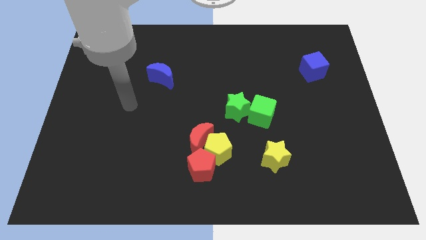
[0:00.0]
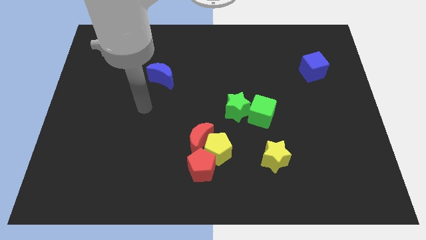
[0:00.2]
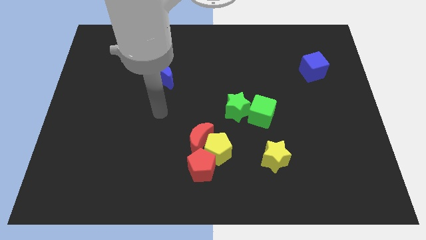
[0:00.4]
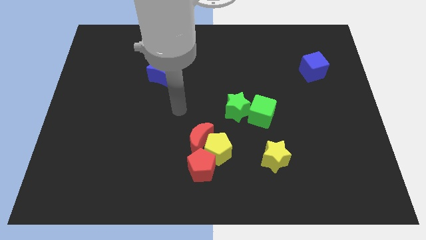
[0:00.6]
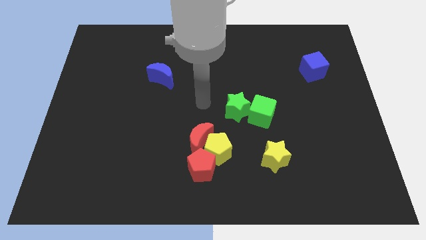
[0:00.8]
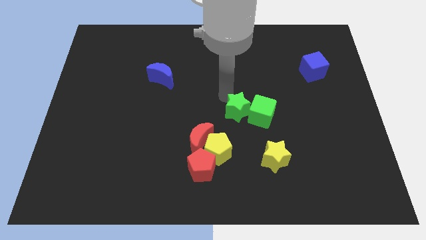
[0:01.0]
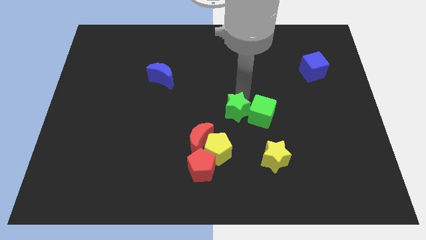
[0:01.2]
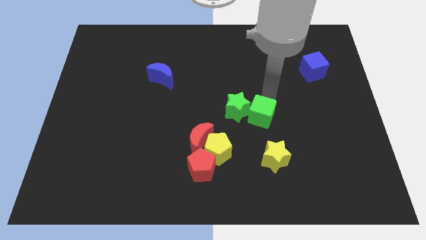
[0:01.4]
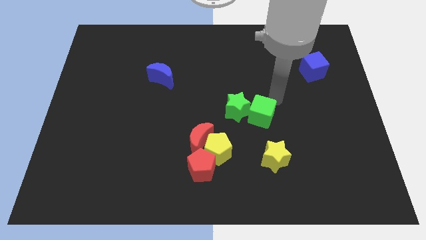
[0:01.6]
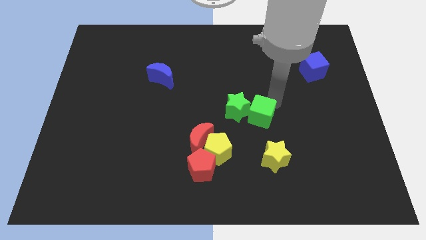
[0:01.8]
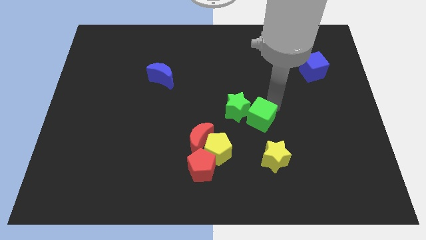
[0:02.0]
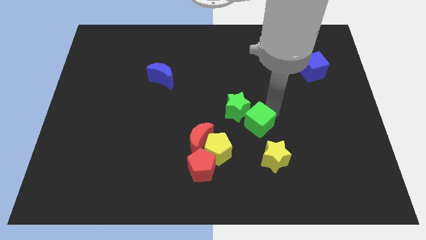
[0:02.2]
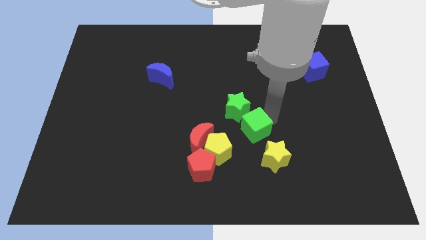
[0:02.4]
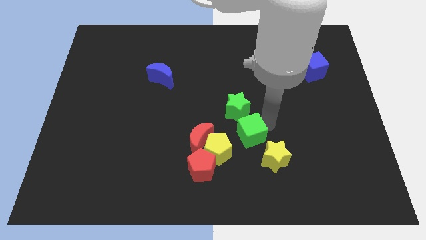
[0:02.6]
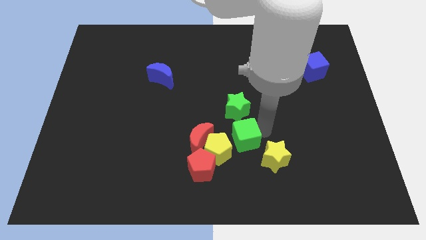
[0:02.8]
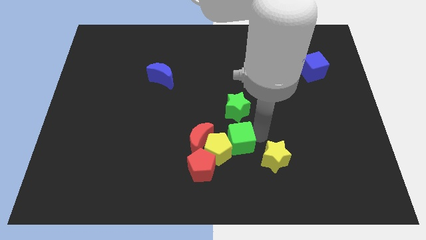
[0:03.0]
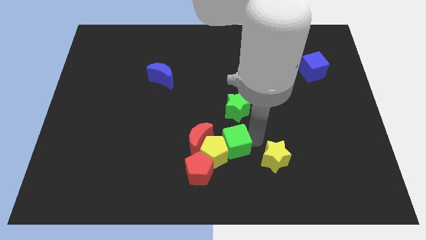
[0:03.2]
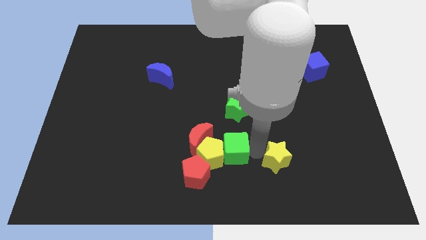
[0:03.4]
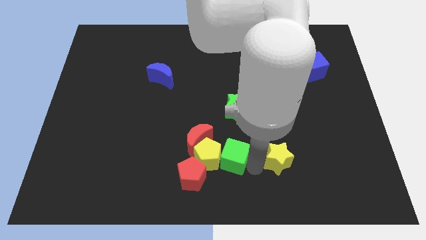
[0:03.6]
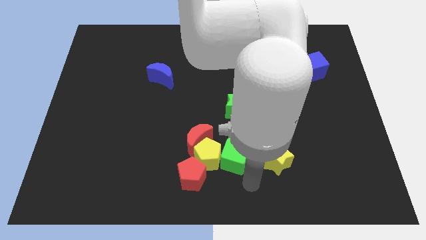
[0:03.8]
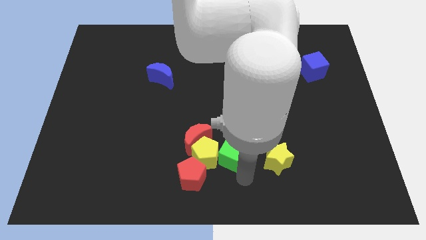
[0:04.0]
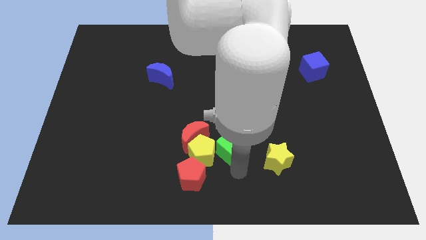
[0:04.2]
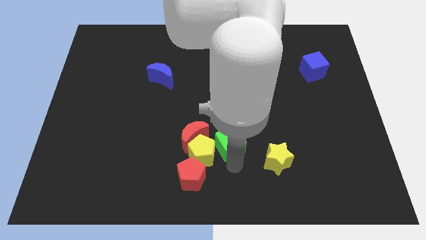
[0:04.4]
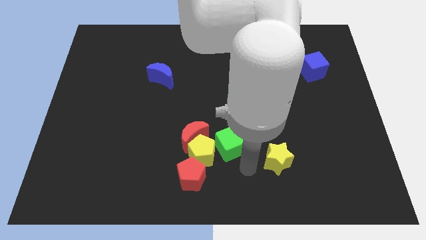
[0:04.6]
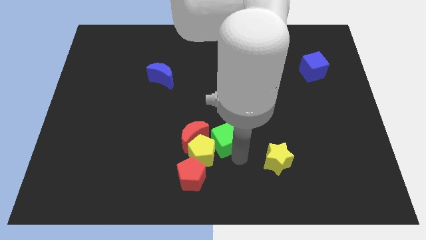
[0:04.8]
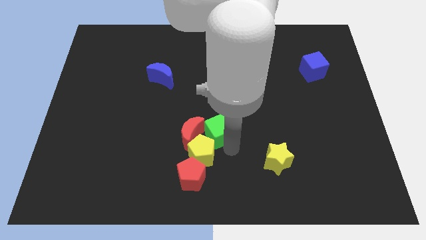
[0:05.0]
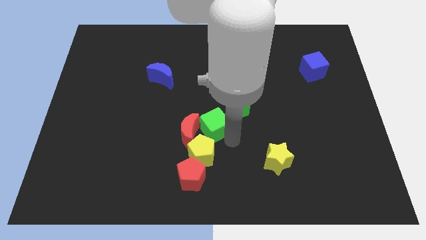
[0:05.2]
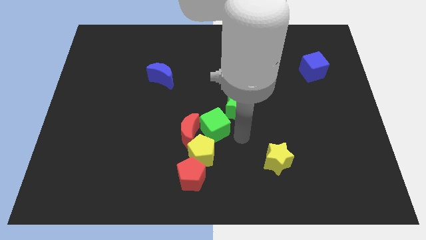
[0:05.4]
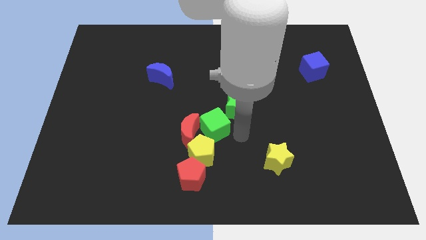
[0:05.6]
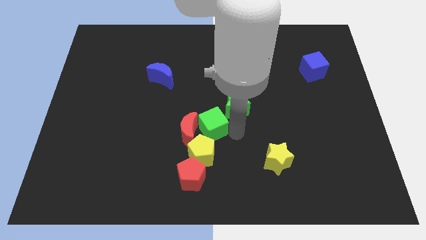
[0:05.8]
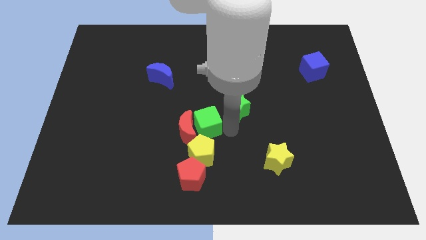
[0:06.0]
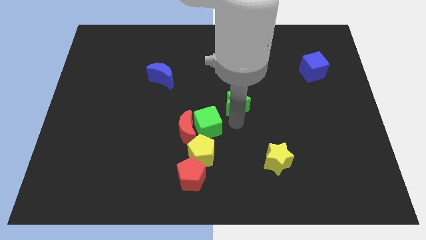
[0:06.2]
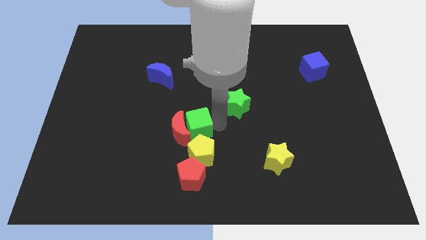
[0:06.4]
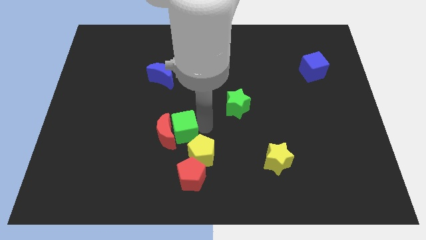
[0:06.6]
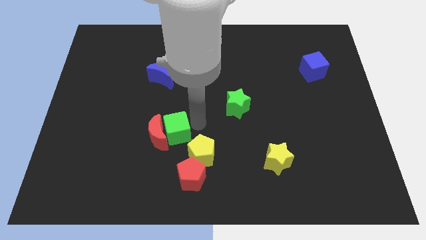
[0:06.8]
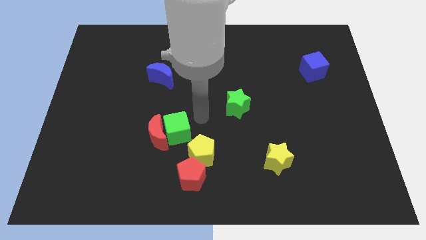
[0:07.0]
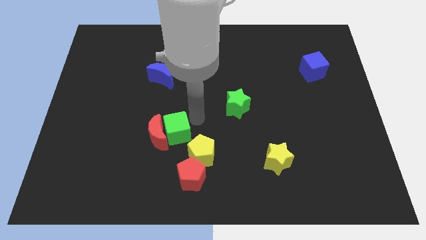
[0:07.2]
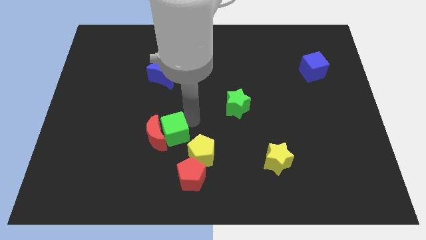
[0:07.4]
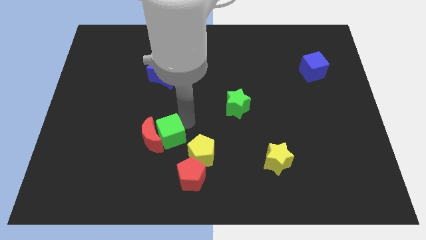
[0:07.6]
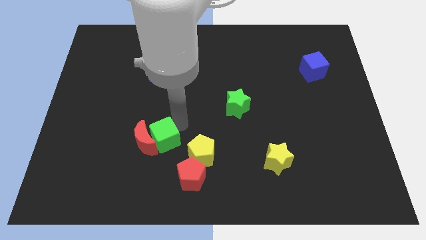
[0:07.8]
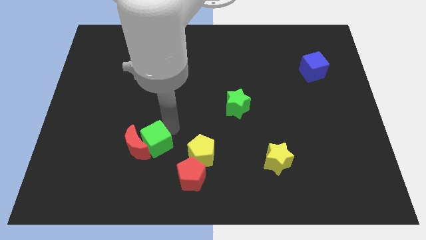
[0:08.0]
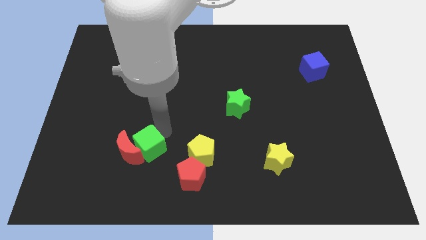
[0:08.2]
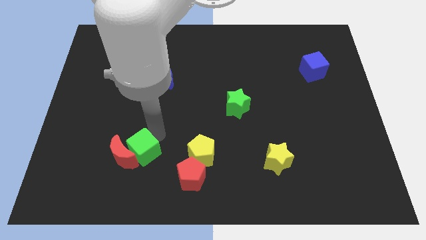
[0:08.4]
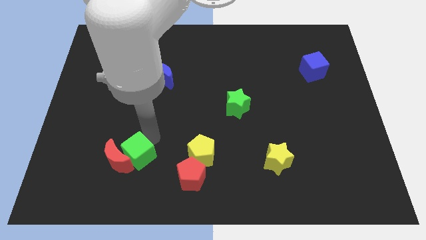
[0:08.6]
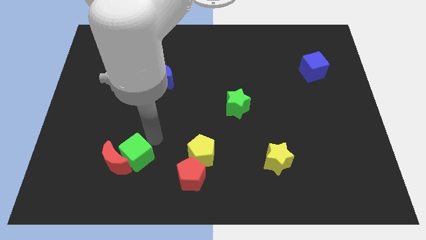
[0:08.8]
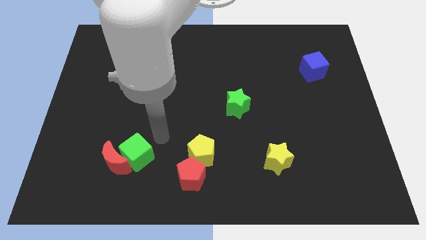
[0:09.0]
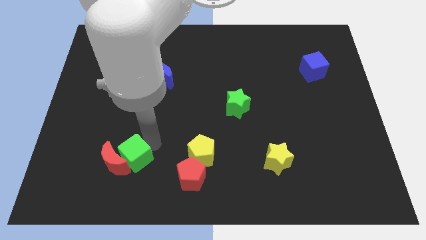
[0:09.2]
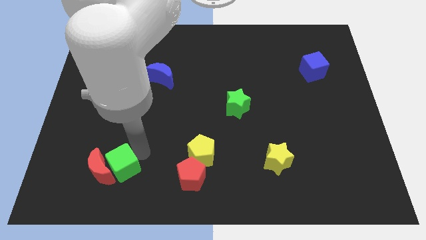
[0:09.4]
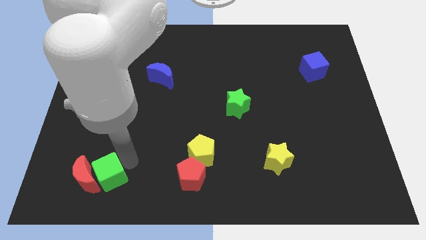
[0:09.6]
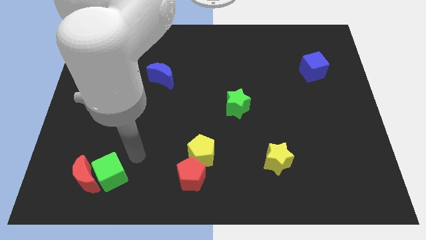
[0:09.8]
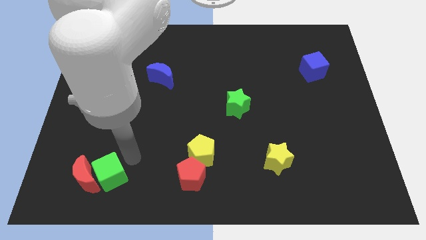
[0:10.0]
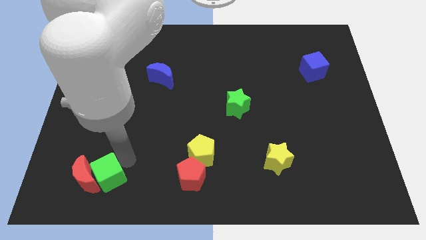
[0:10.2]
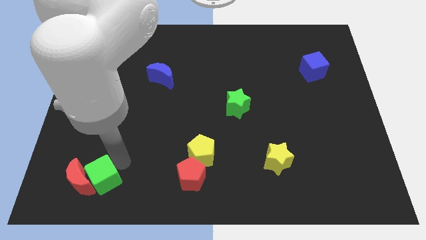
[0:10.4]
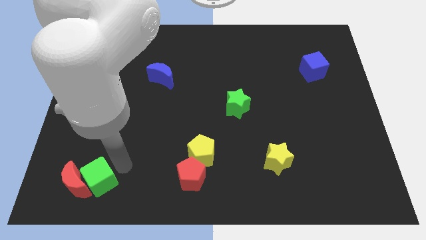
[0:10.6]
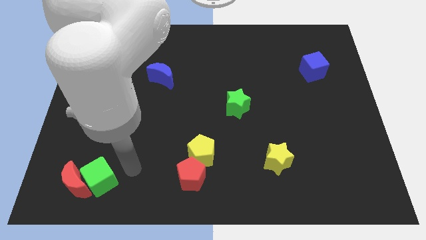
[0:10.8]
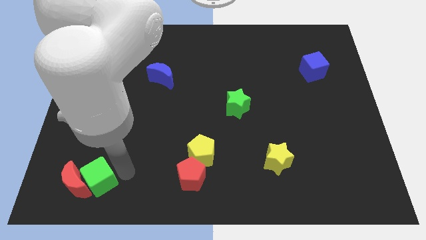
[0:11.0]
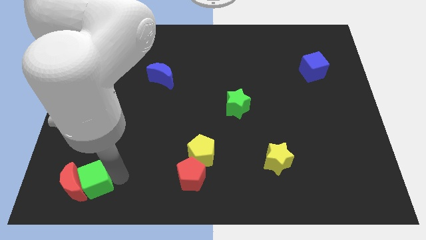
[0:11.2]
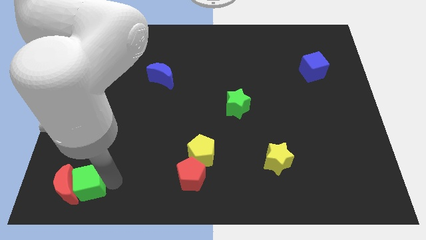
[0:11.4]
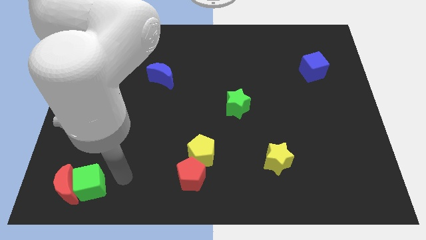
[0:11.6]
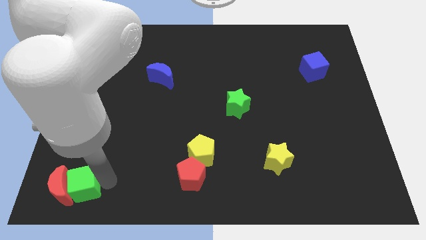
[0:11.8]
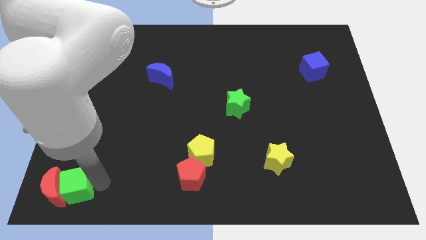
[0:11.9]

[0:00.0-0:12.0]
move the green cube to the bottom left corner

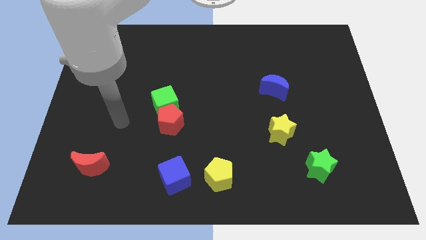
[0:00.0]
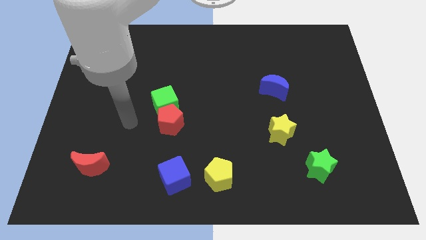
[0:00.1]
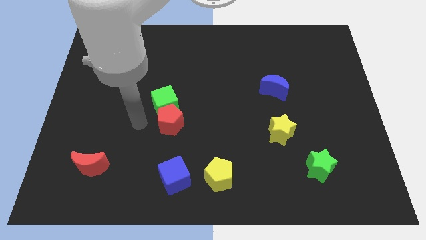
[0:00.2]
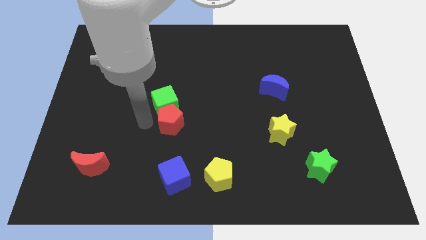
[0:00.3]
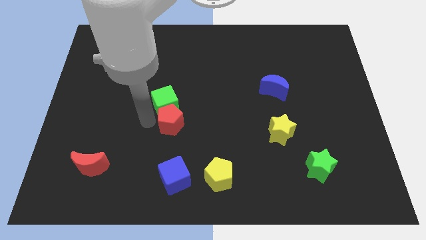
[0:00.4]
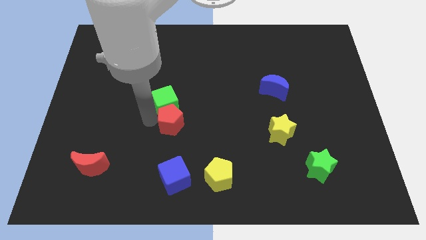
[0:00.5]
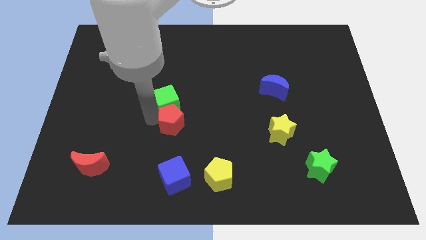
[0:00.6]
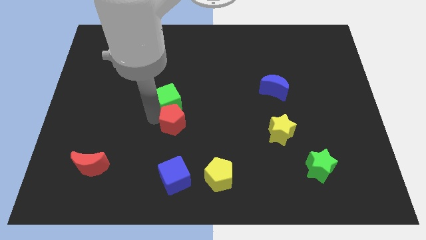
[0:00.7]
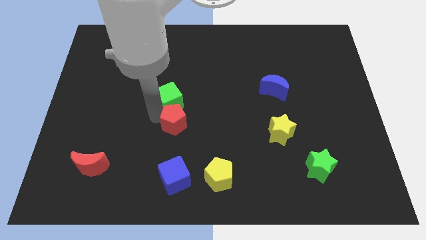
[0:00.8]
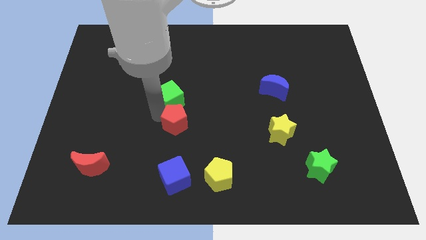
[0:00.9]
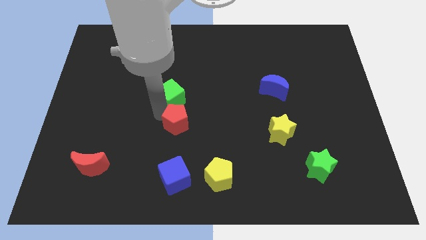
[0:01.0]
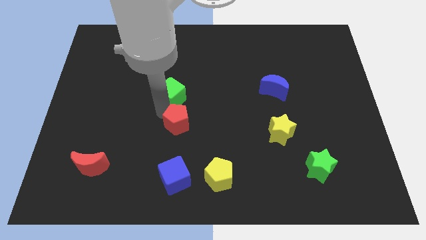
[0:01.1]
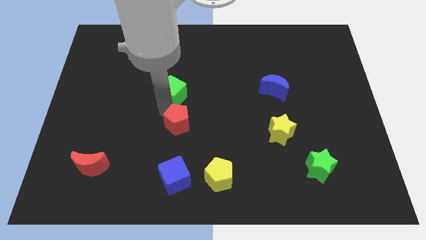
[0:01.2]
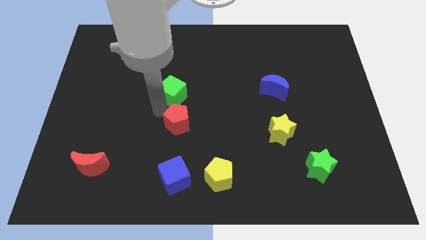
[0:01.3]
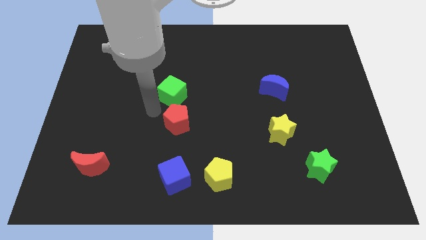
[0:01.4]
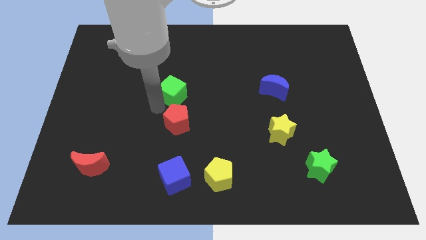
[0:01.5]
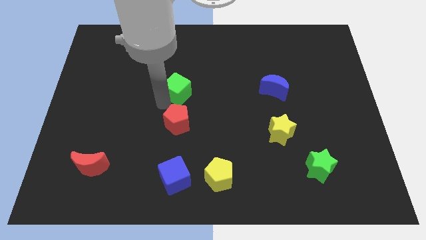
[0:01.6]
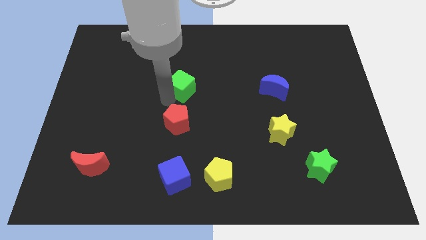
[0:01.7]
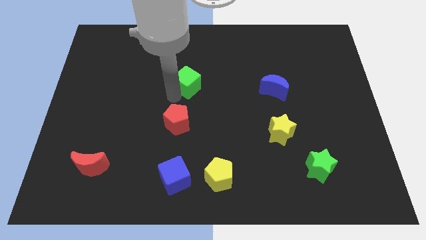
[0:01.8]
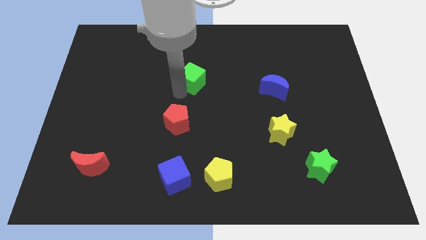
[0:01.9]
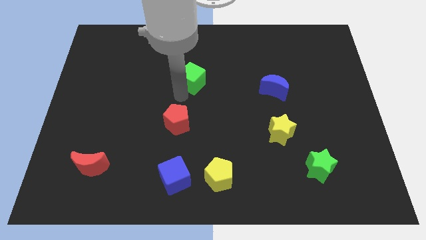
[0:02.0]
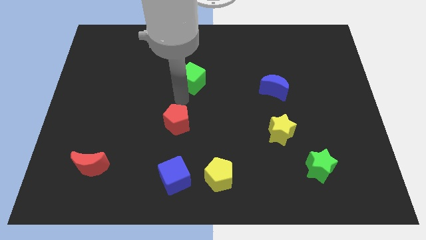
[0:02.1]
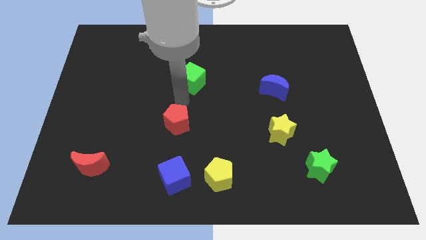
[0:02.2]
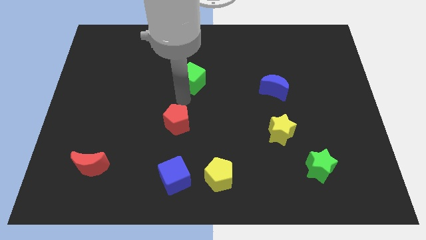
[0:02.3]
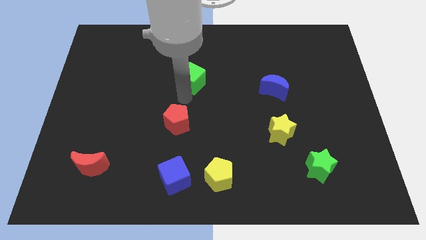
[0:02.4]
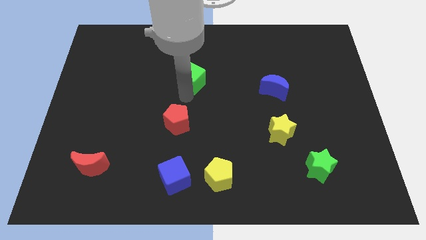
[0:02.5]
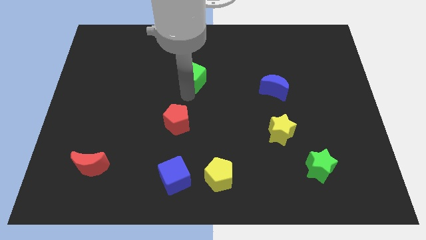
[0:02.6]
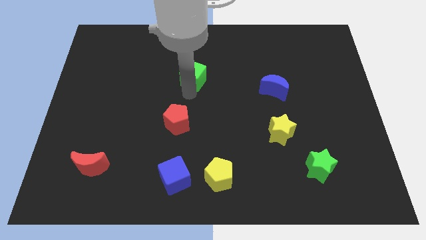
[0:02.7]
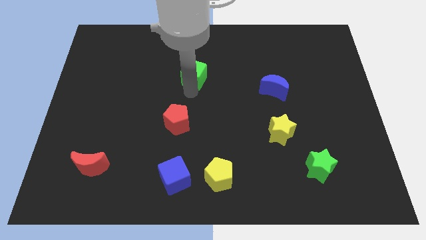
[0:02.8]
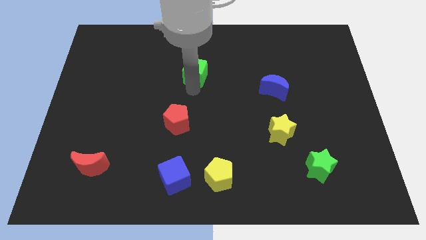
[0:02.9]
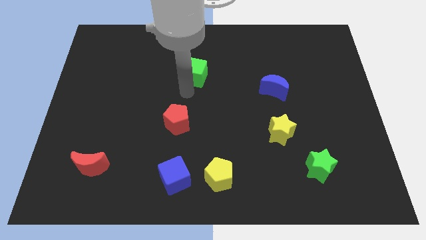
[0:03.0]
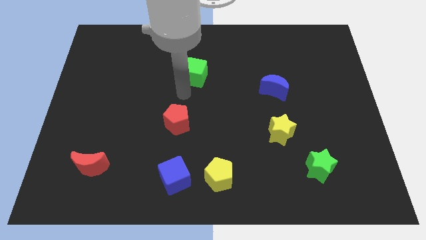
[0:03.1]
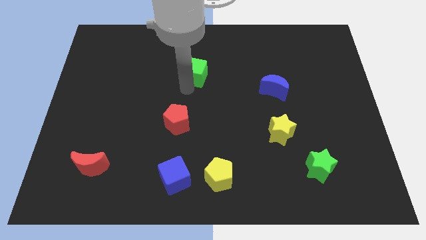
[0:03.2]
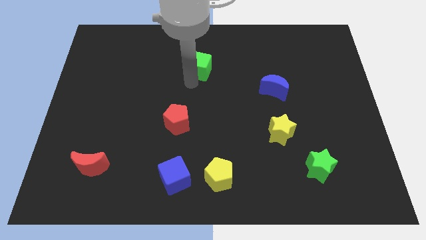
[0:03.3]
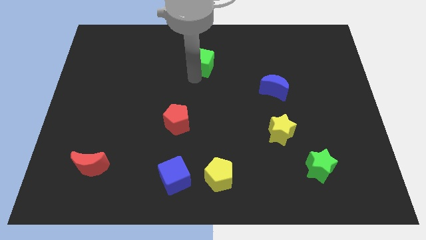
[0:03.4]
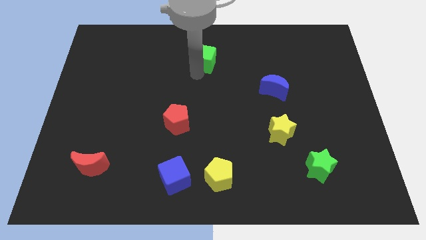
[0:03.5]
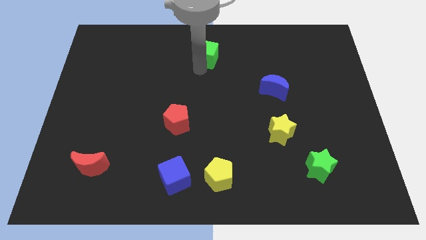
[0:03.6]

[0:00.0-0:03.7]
move the green cube to the towards your base
